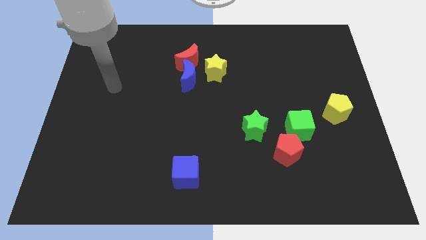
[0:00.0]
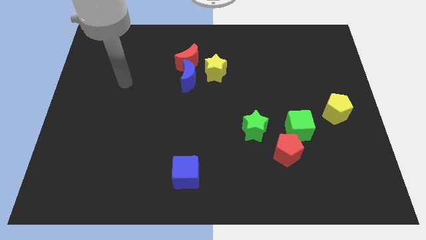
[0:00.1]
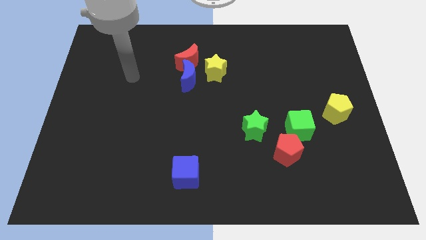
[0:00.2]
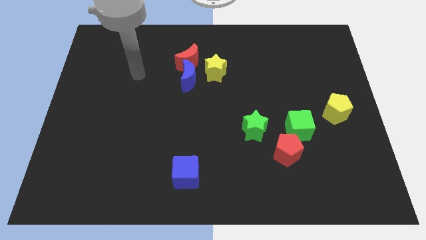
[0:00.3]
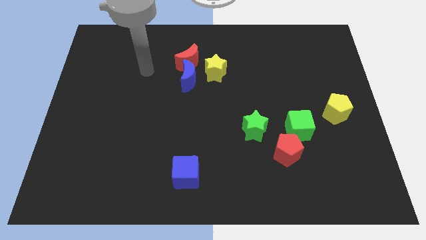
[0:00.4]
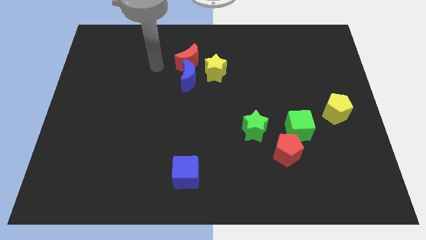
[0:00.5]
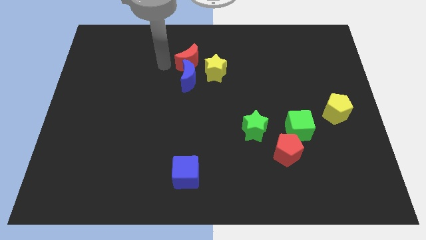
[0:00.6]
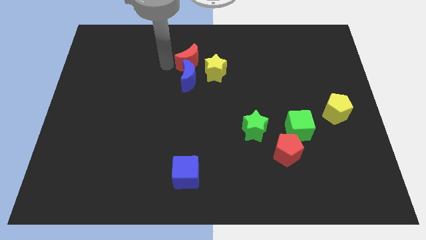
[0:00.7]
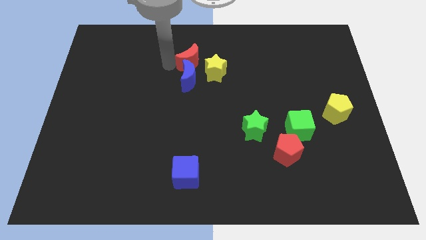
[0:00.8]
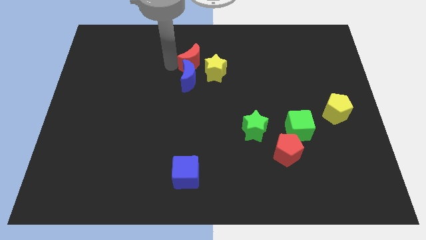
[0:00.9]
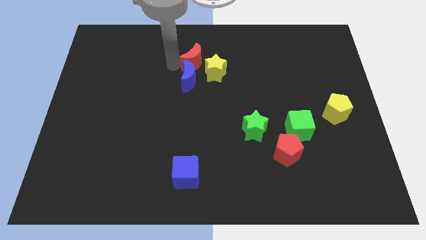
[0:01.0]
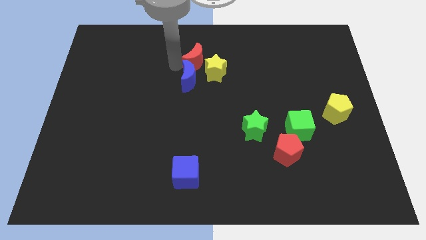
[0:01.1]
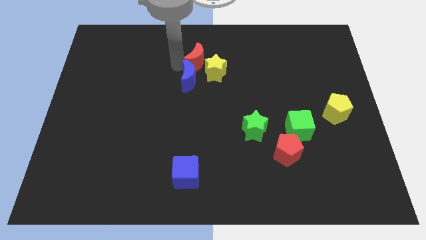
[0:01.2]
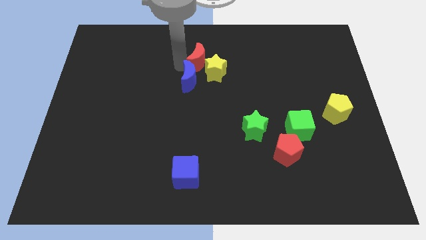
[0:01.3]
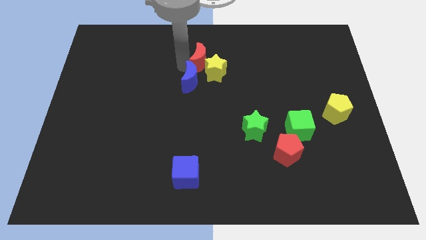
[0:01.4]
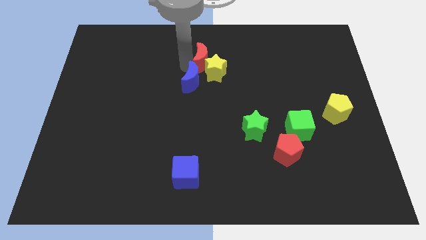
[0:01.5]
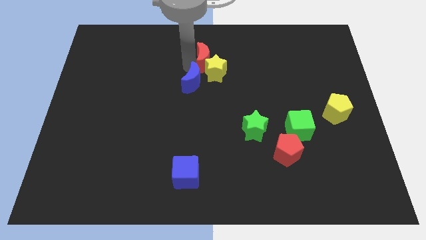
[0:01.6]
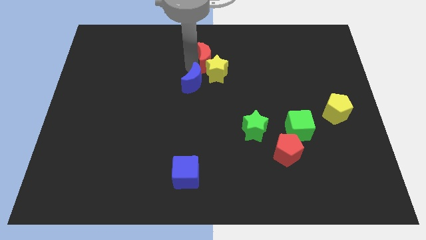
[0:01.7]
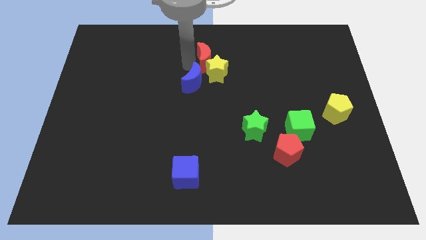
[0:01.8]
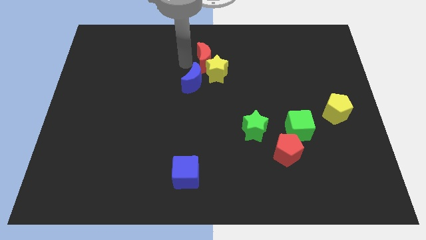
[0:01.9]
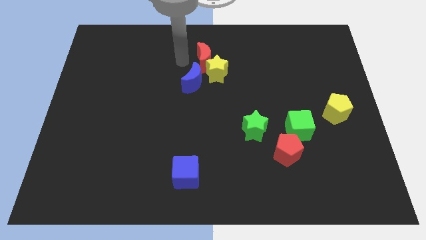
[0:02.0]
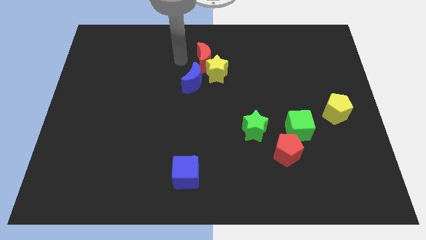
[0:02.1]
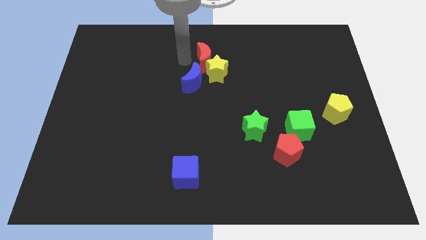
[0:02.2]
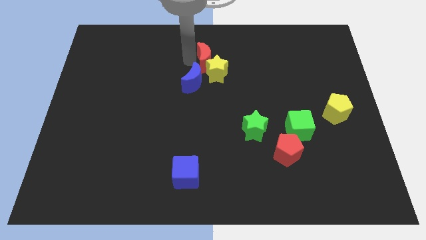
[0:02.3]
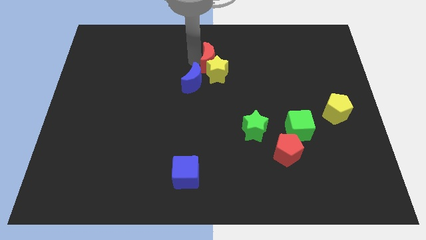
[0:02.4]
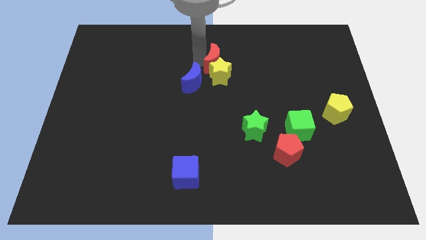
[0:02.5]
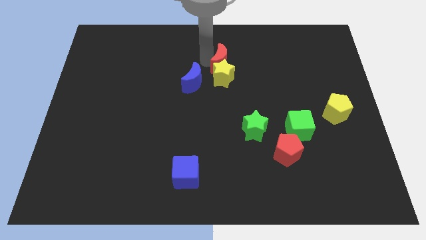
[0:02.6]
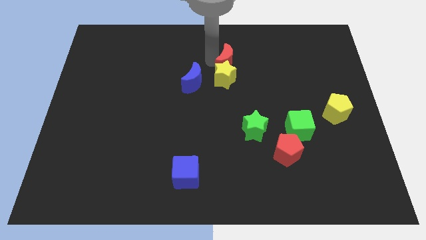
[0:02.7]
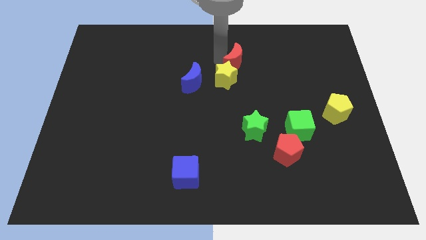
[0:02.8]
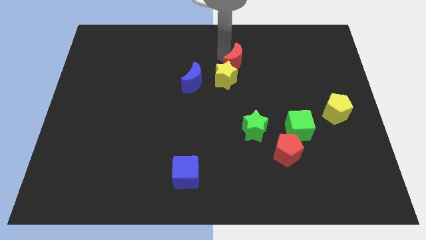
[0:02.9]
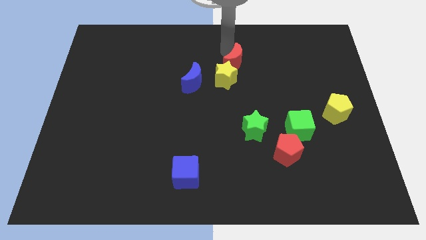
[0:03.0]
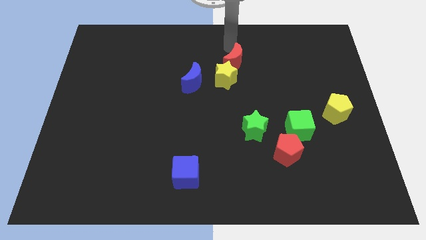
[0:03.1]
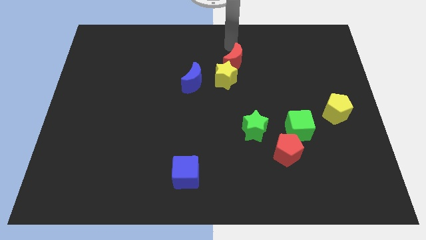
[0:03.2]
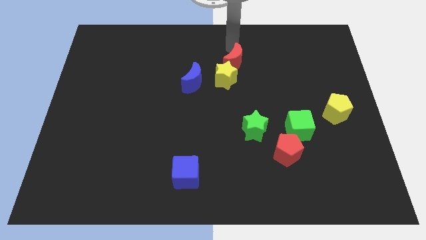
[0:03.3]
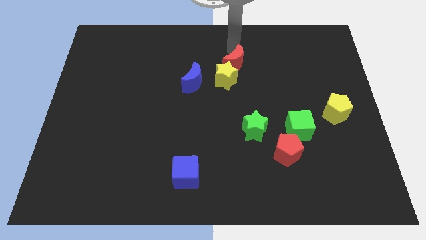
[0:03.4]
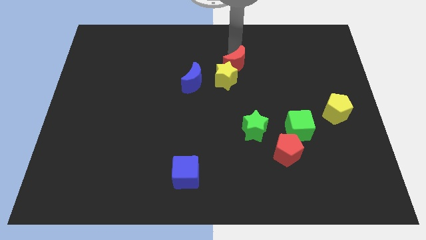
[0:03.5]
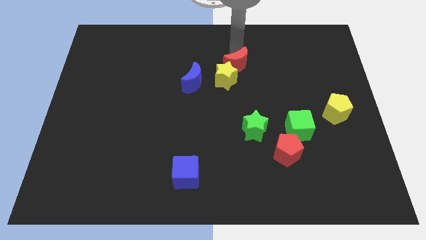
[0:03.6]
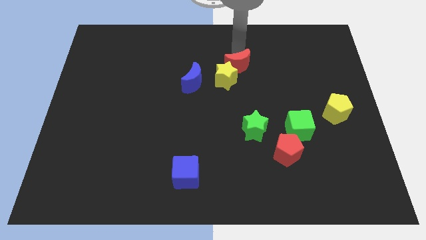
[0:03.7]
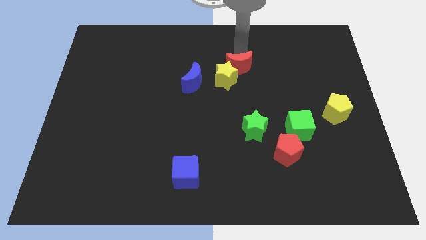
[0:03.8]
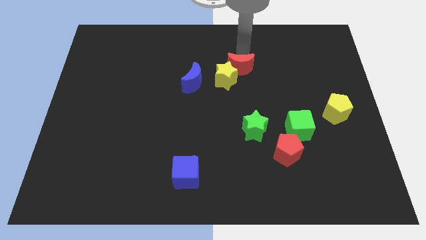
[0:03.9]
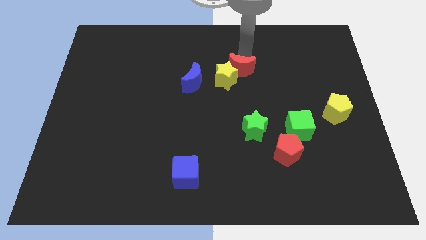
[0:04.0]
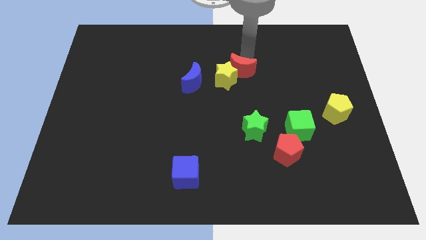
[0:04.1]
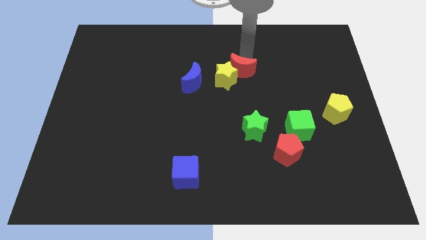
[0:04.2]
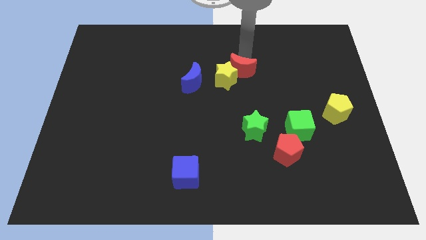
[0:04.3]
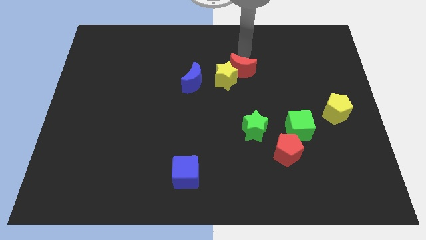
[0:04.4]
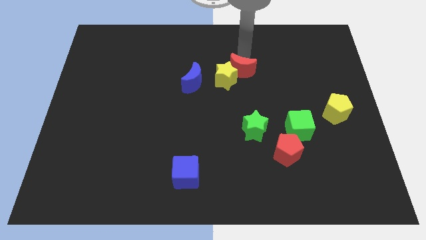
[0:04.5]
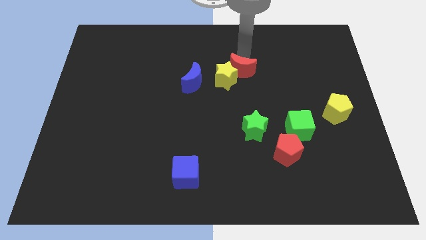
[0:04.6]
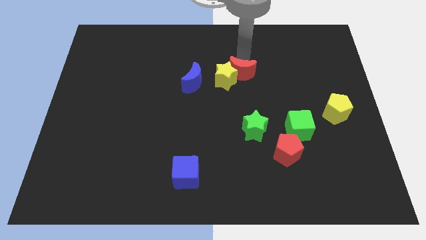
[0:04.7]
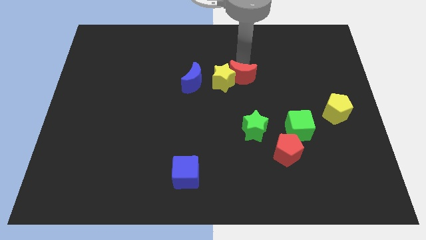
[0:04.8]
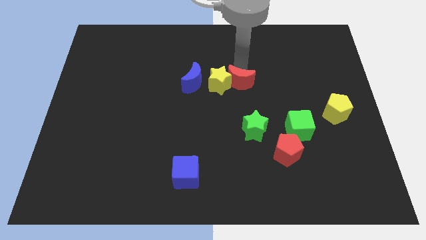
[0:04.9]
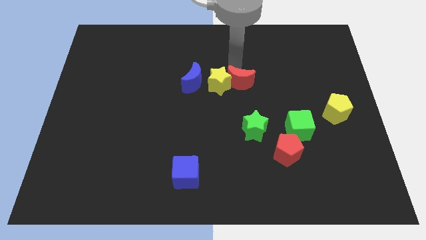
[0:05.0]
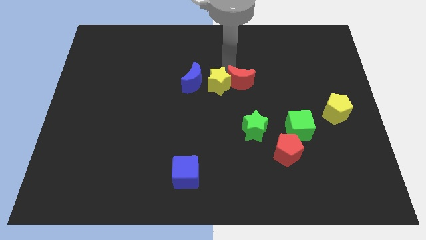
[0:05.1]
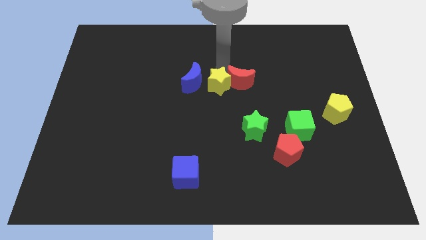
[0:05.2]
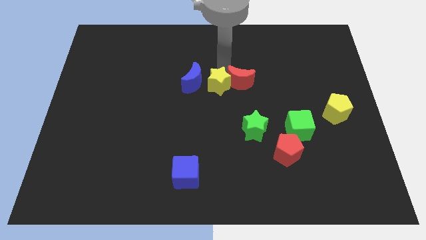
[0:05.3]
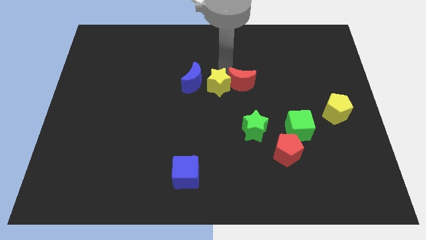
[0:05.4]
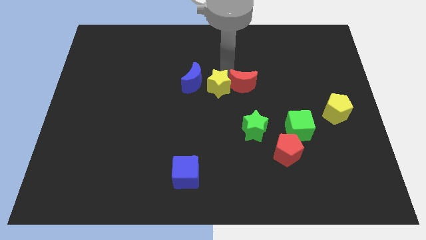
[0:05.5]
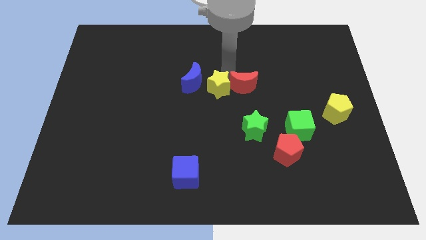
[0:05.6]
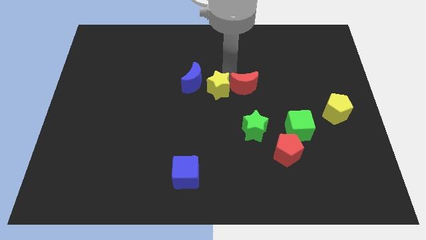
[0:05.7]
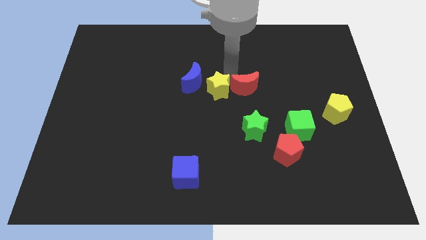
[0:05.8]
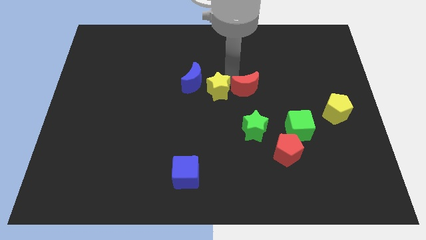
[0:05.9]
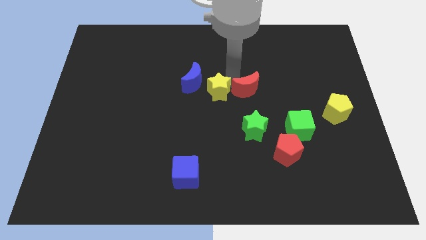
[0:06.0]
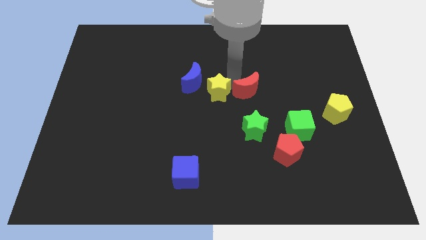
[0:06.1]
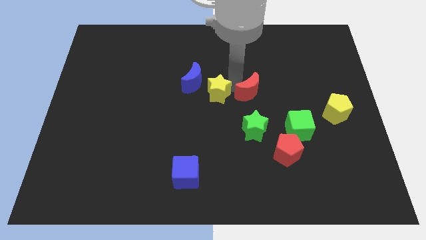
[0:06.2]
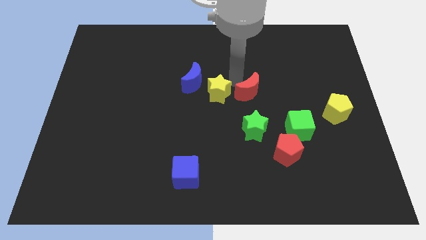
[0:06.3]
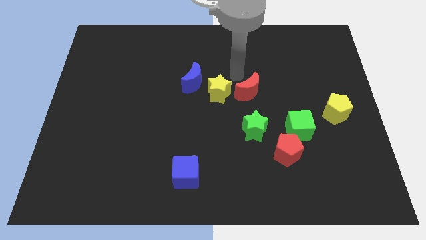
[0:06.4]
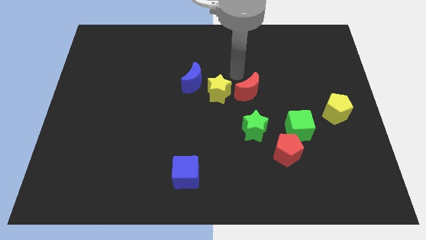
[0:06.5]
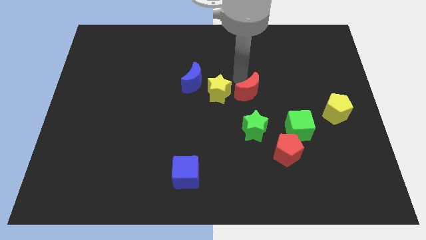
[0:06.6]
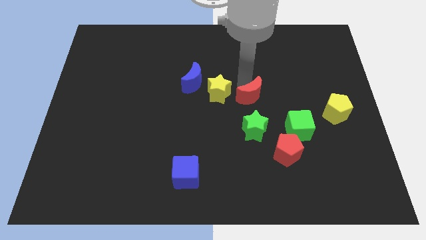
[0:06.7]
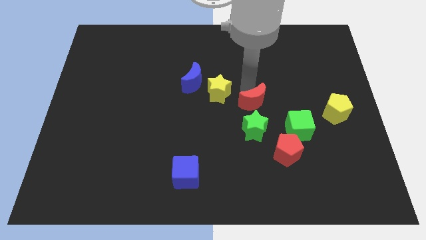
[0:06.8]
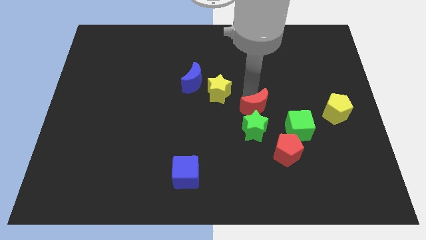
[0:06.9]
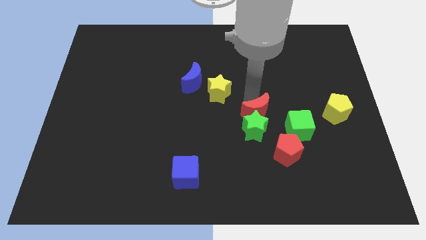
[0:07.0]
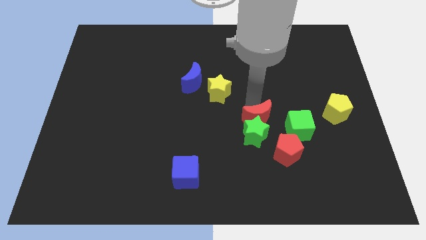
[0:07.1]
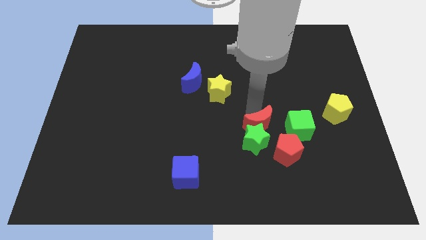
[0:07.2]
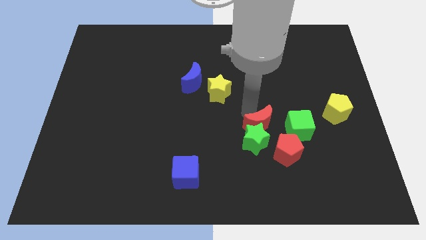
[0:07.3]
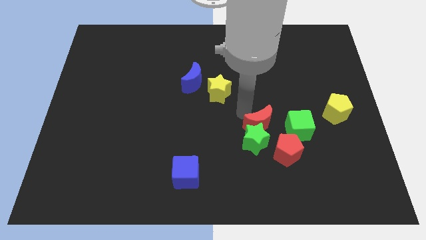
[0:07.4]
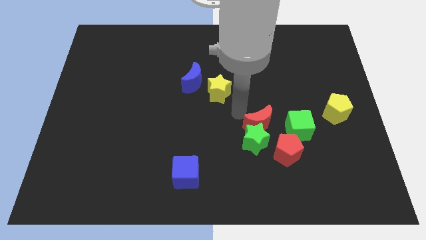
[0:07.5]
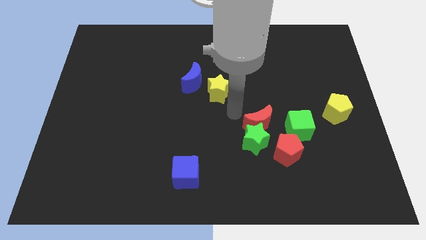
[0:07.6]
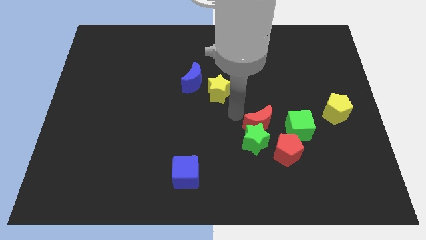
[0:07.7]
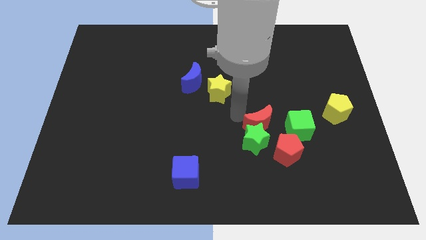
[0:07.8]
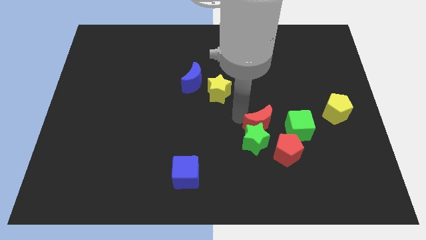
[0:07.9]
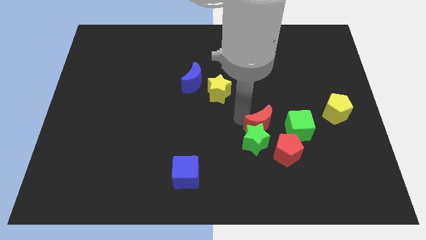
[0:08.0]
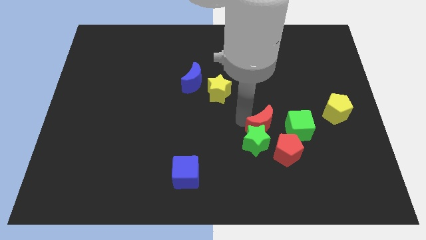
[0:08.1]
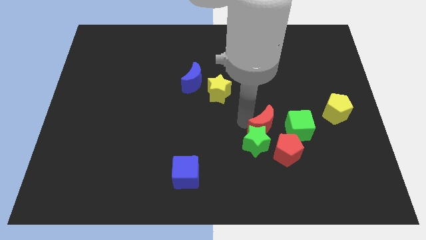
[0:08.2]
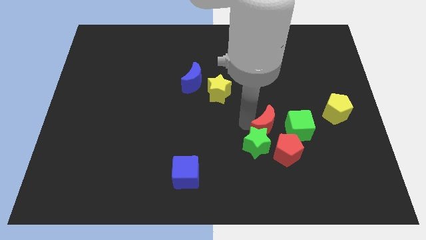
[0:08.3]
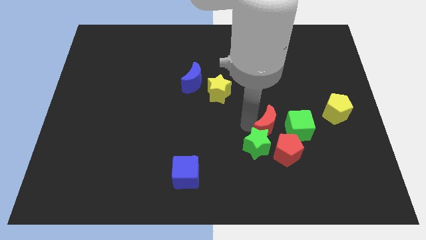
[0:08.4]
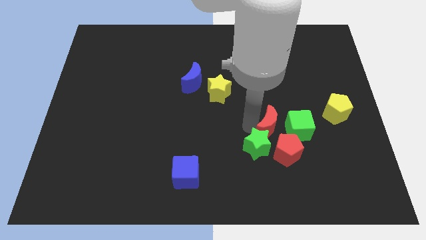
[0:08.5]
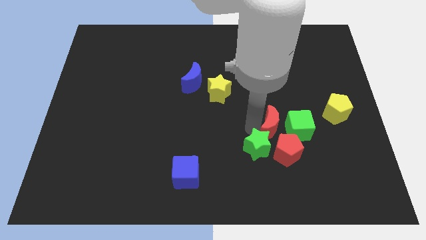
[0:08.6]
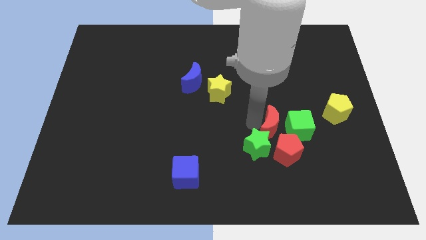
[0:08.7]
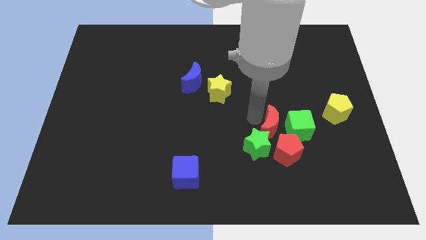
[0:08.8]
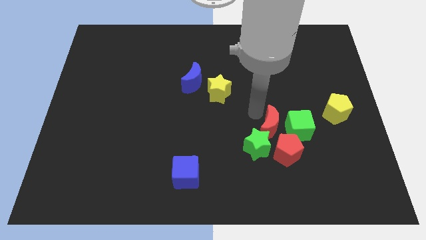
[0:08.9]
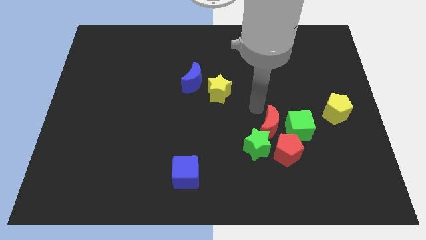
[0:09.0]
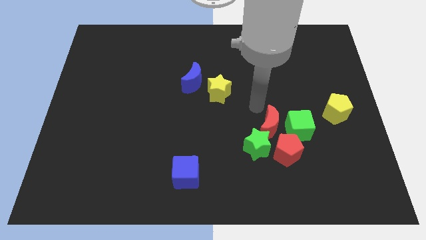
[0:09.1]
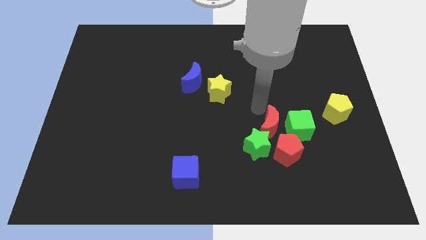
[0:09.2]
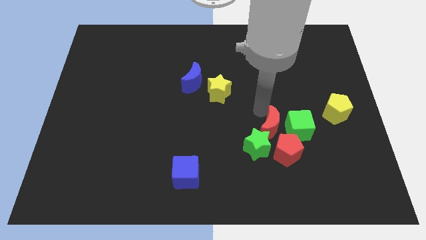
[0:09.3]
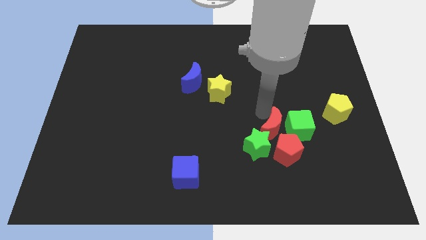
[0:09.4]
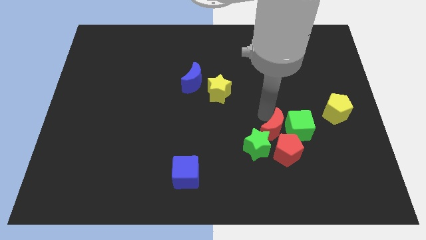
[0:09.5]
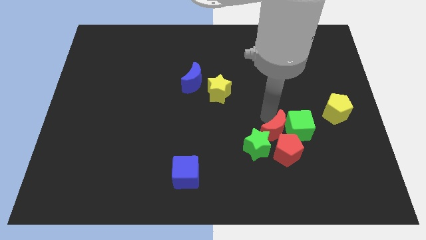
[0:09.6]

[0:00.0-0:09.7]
move the red moon towards the red pentagon
